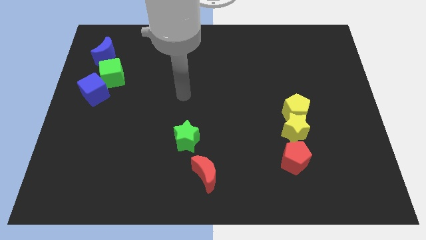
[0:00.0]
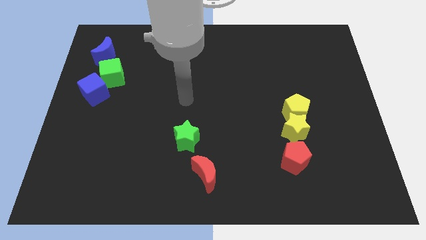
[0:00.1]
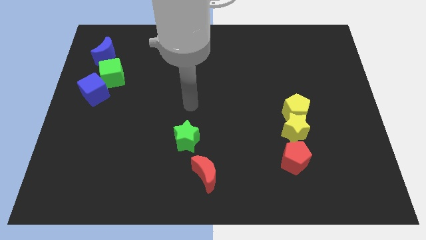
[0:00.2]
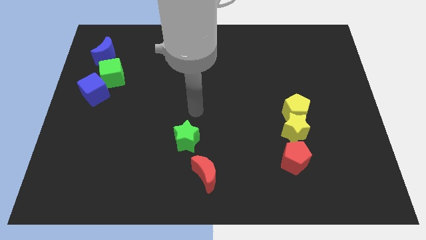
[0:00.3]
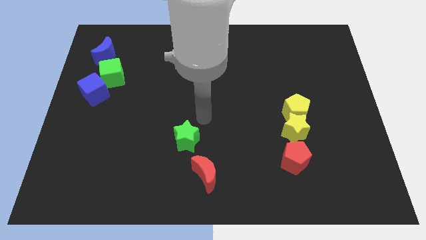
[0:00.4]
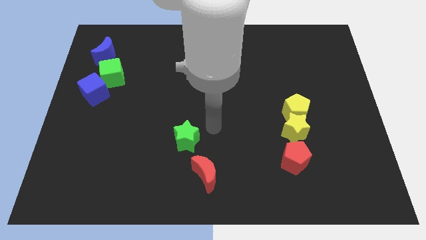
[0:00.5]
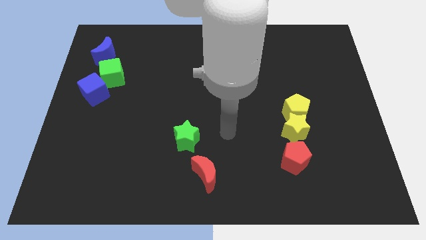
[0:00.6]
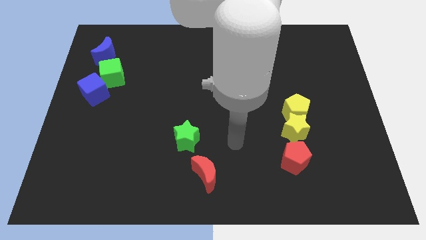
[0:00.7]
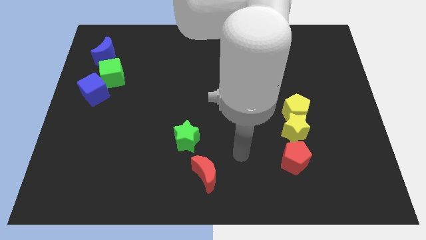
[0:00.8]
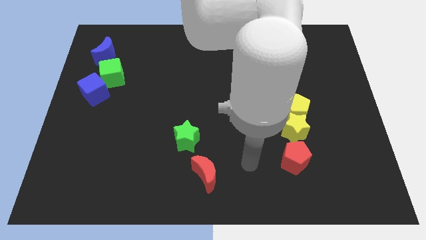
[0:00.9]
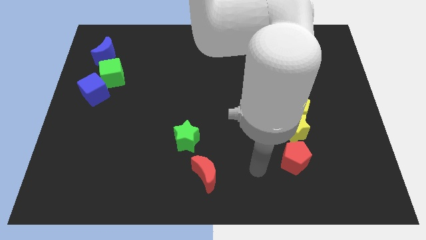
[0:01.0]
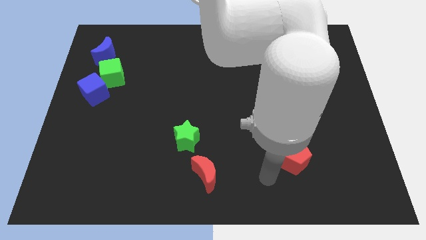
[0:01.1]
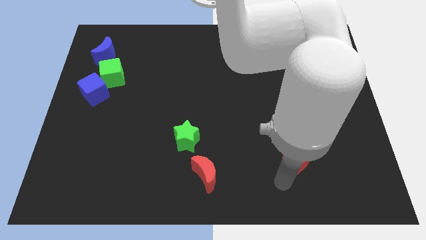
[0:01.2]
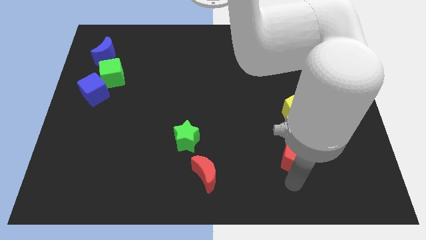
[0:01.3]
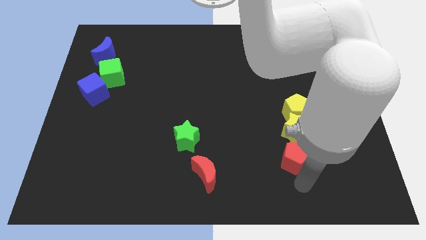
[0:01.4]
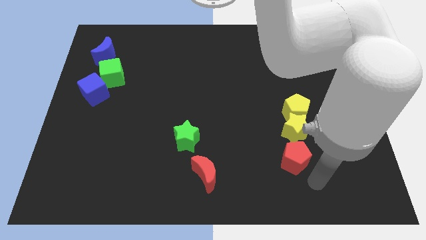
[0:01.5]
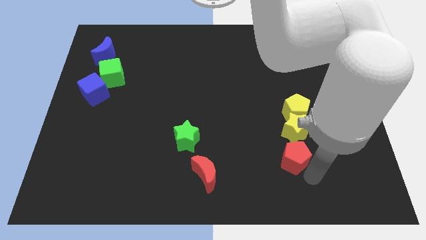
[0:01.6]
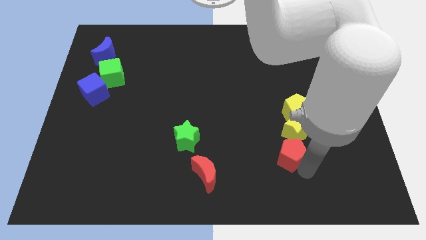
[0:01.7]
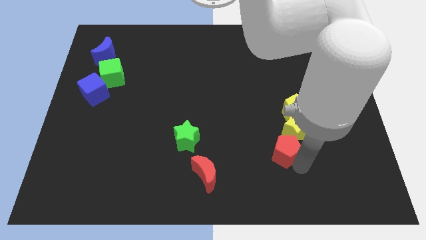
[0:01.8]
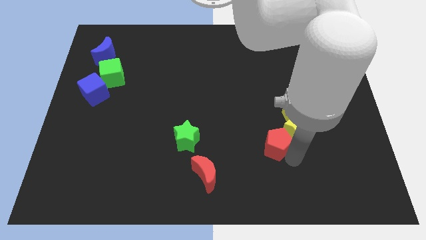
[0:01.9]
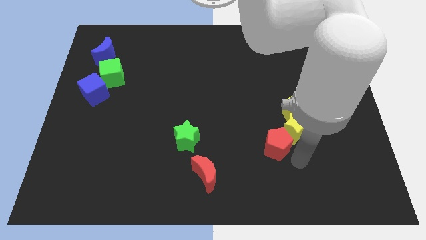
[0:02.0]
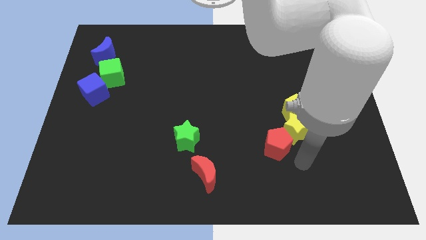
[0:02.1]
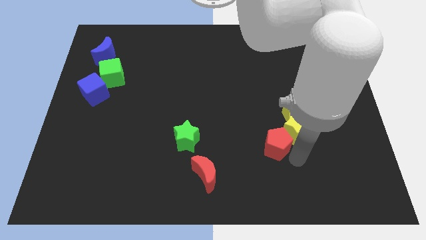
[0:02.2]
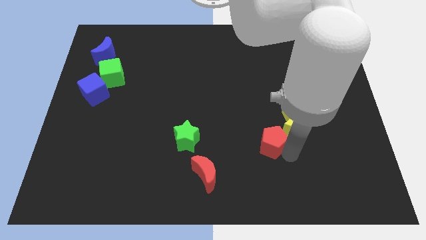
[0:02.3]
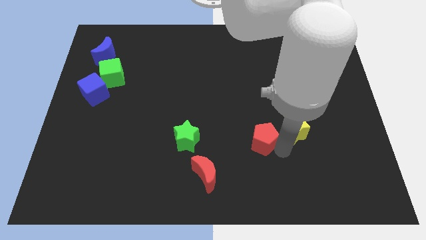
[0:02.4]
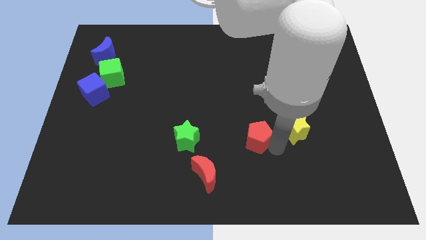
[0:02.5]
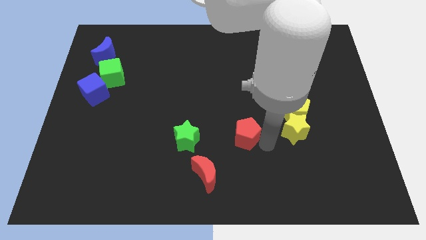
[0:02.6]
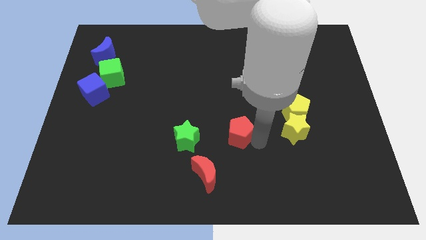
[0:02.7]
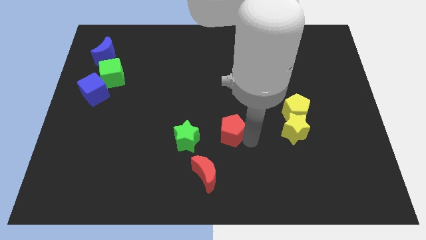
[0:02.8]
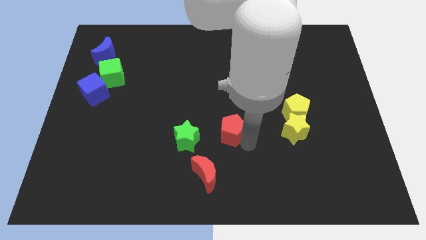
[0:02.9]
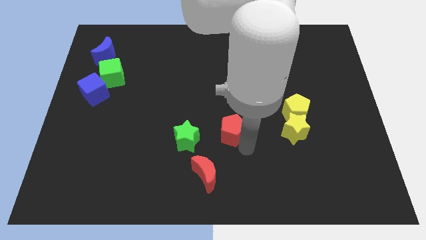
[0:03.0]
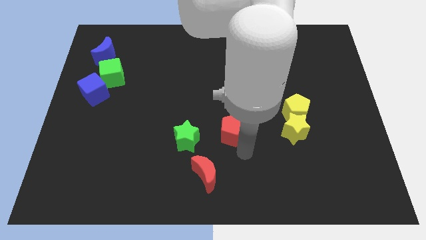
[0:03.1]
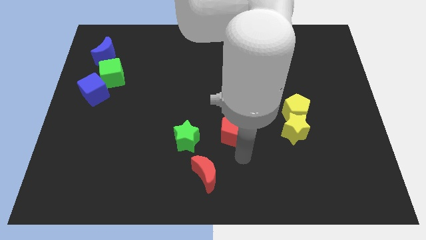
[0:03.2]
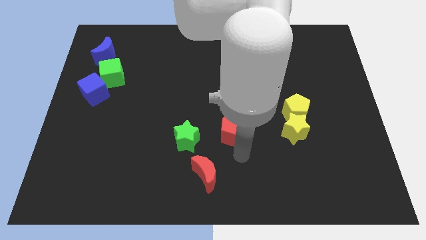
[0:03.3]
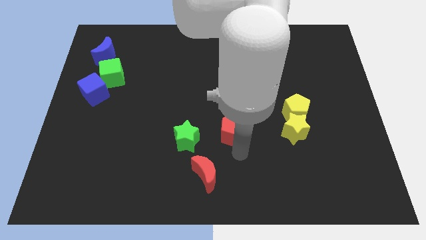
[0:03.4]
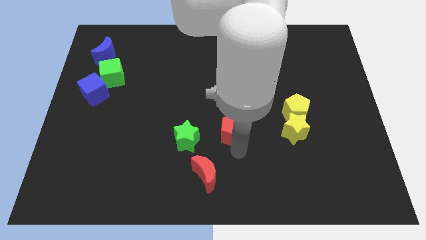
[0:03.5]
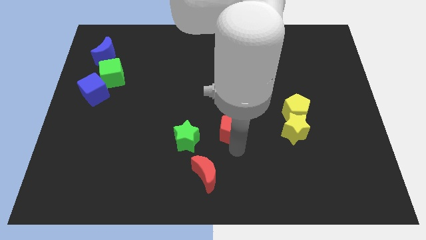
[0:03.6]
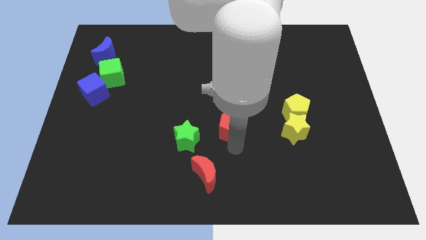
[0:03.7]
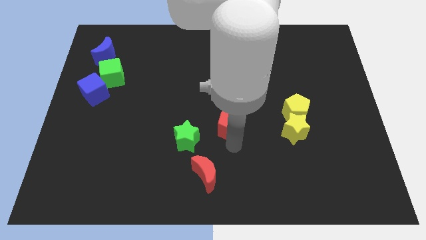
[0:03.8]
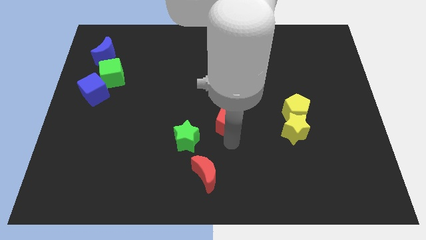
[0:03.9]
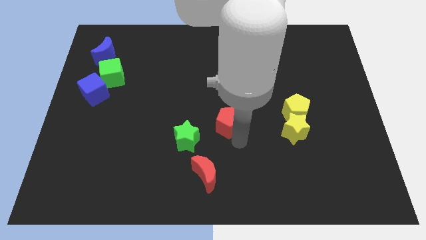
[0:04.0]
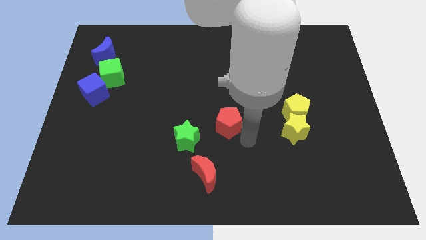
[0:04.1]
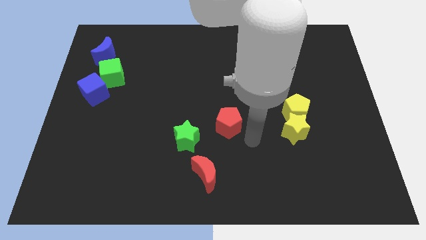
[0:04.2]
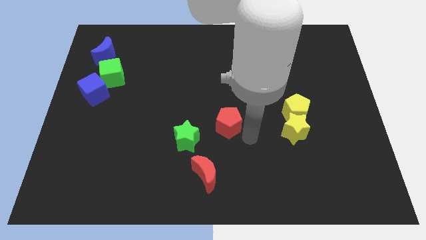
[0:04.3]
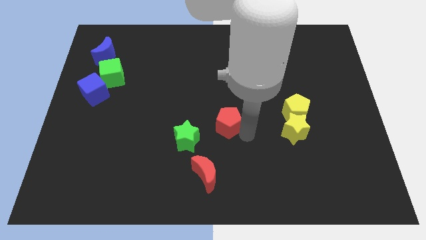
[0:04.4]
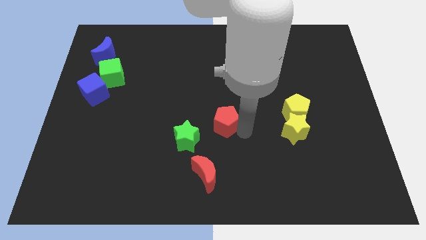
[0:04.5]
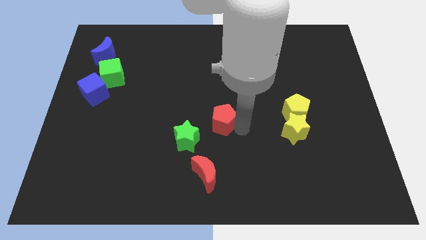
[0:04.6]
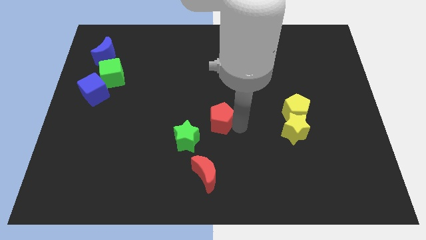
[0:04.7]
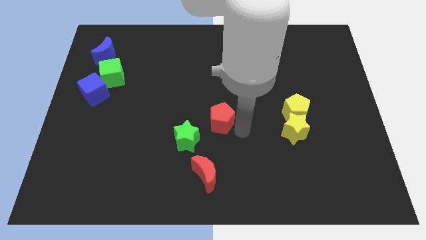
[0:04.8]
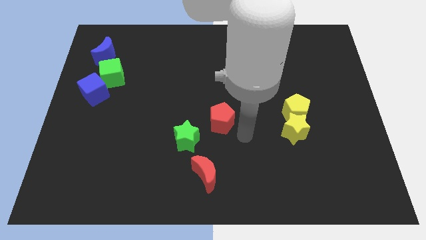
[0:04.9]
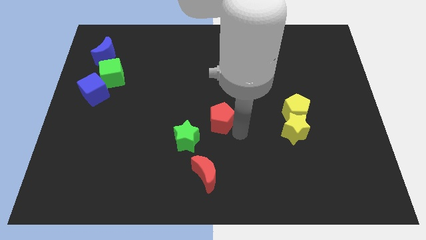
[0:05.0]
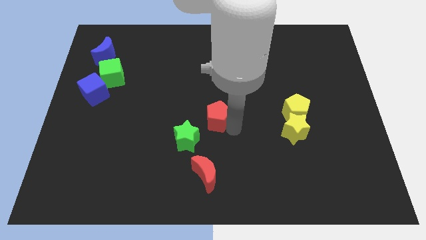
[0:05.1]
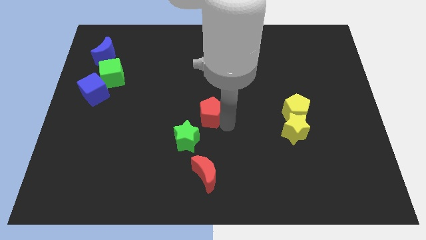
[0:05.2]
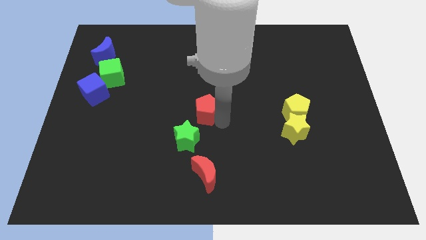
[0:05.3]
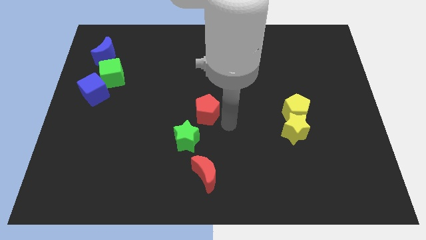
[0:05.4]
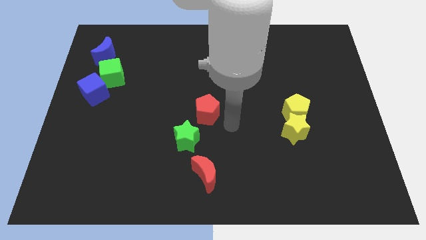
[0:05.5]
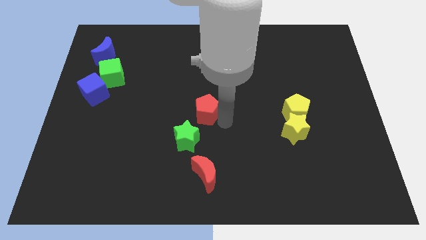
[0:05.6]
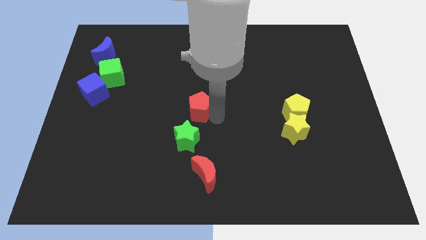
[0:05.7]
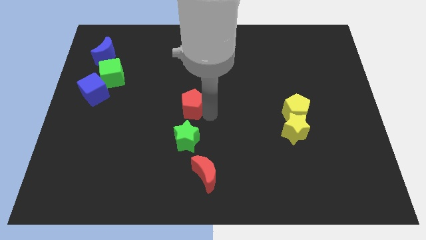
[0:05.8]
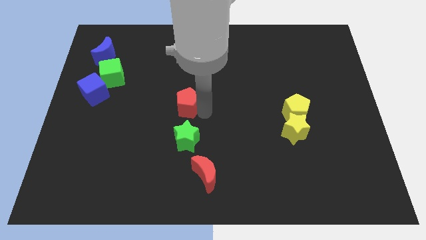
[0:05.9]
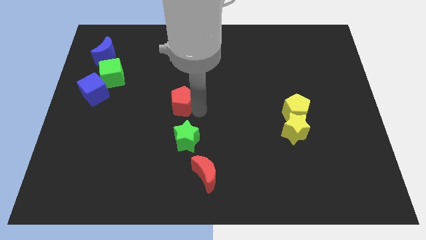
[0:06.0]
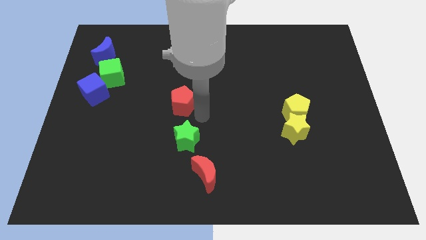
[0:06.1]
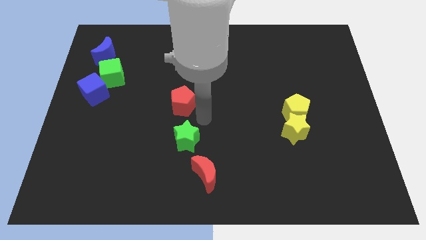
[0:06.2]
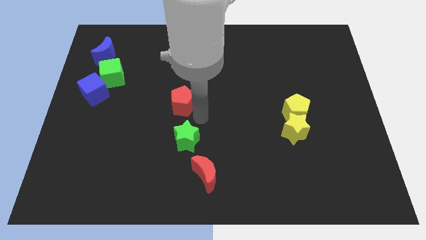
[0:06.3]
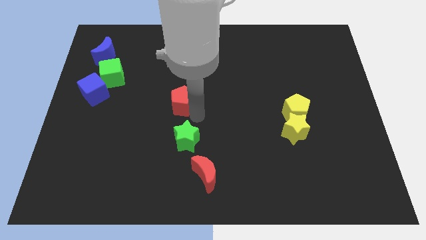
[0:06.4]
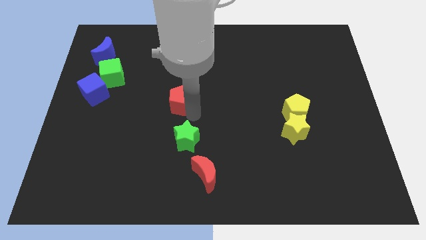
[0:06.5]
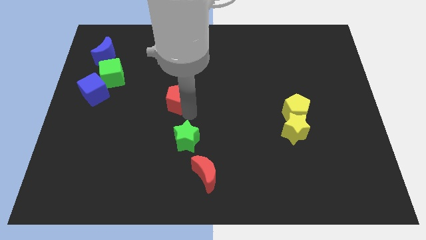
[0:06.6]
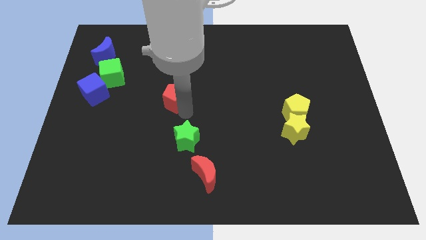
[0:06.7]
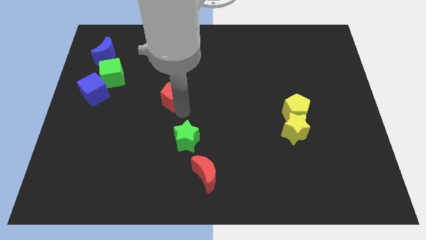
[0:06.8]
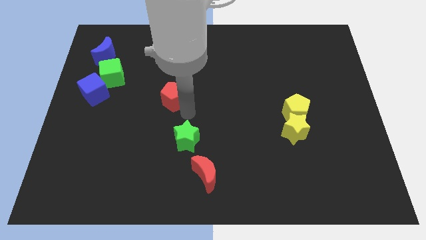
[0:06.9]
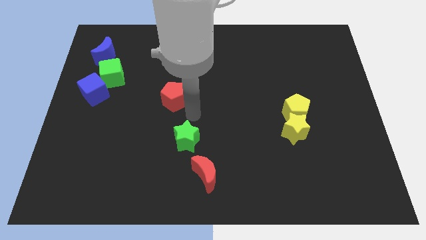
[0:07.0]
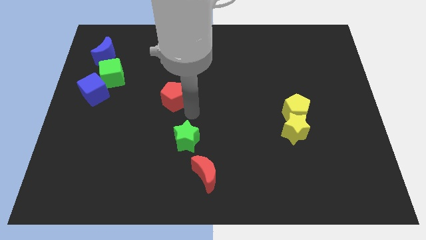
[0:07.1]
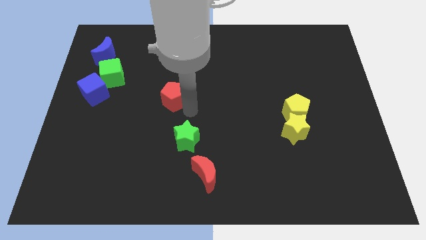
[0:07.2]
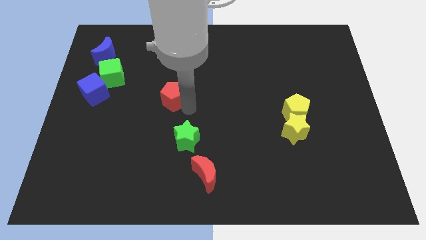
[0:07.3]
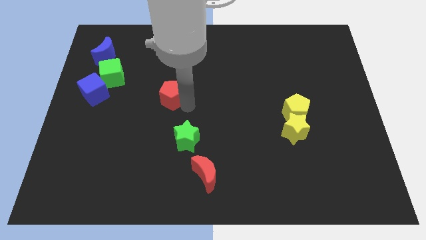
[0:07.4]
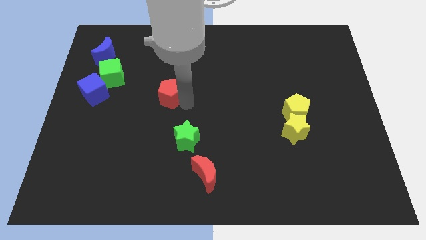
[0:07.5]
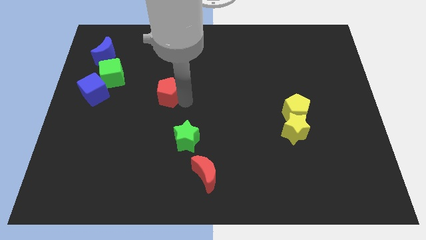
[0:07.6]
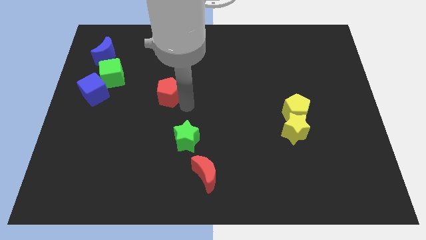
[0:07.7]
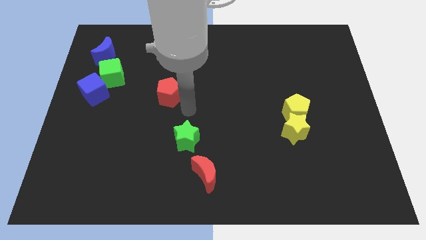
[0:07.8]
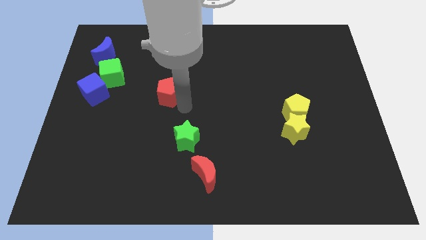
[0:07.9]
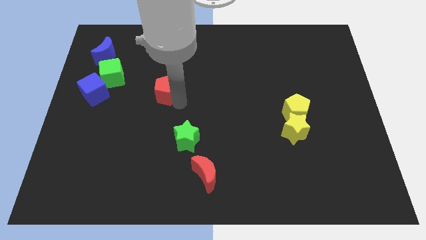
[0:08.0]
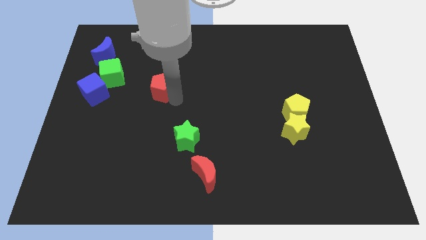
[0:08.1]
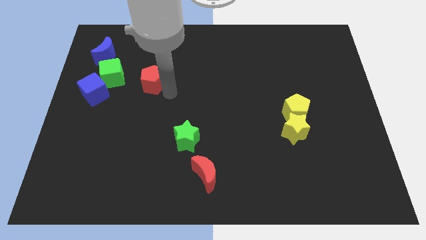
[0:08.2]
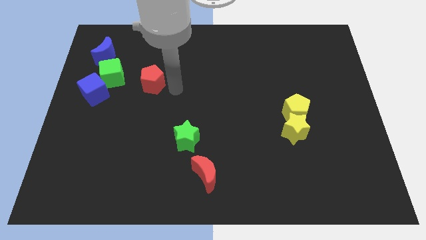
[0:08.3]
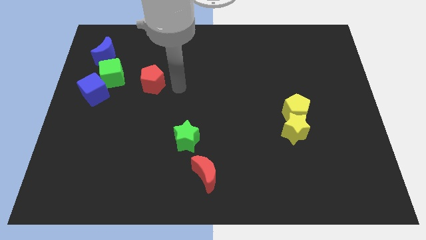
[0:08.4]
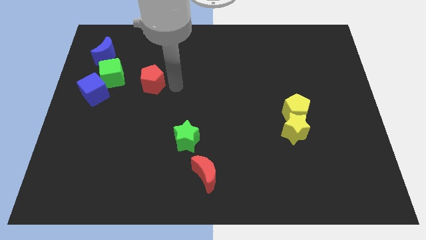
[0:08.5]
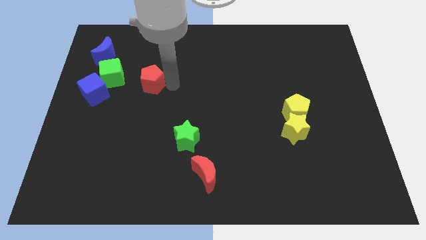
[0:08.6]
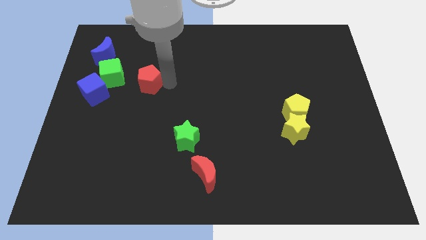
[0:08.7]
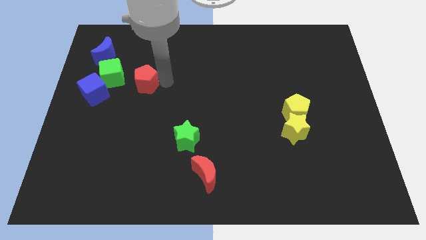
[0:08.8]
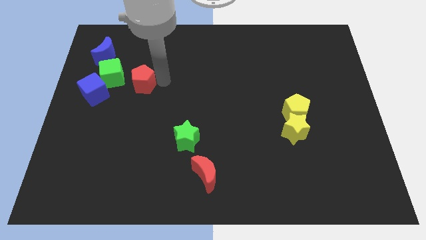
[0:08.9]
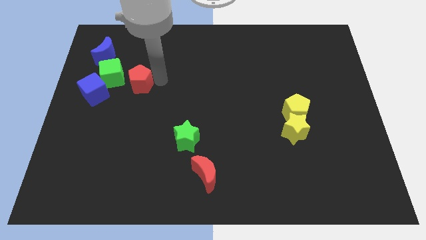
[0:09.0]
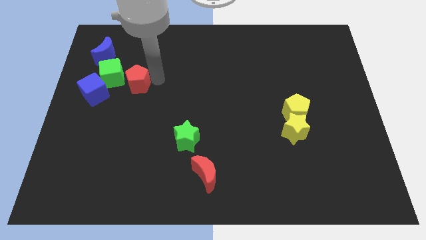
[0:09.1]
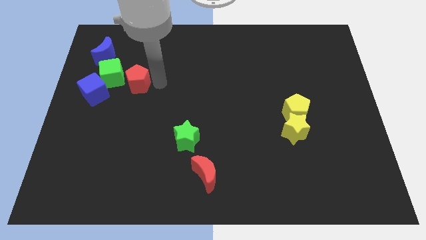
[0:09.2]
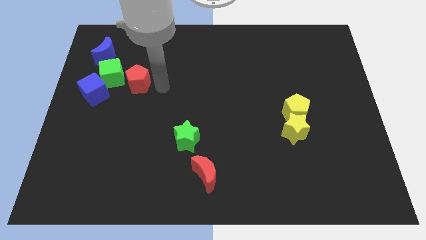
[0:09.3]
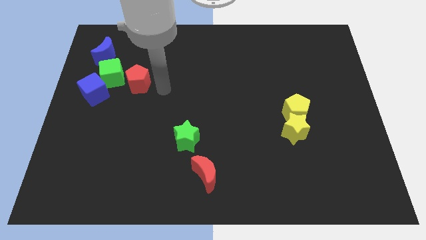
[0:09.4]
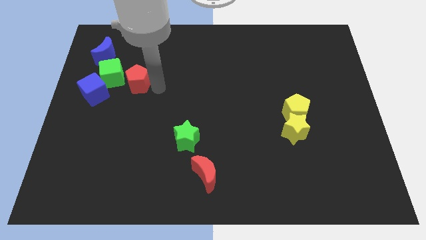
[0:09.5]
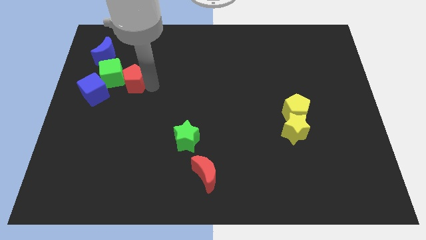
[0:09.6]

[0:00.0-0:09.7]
push the red pentagon to the top right side of the blue cube
